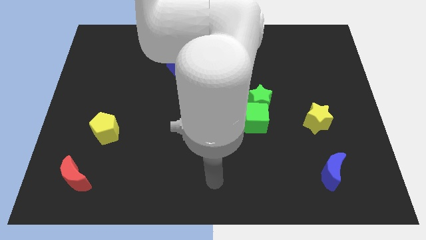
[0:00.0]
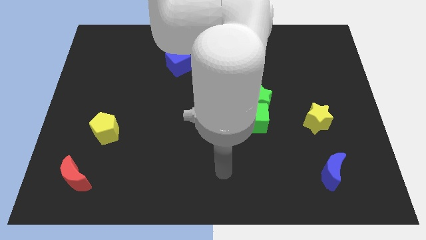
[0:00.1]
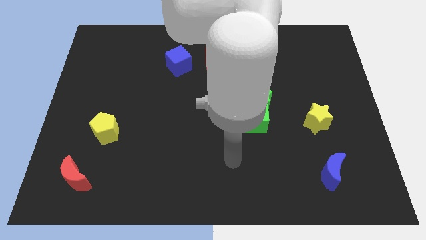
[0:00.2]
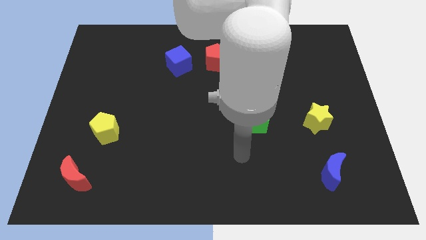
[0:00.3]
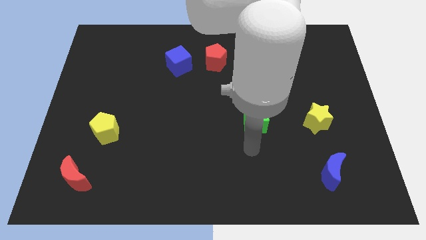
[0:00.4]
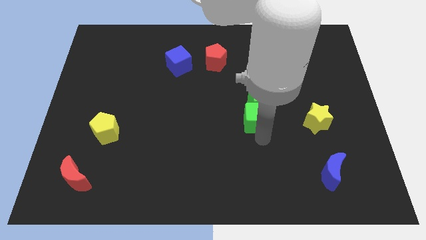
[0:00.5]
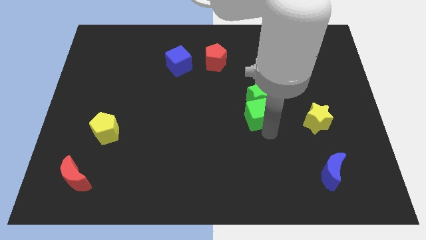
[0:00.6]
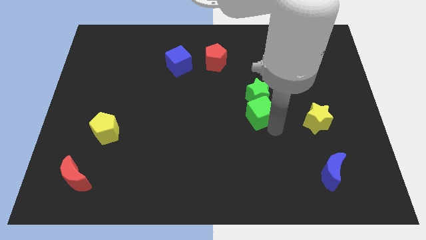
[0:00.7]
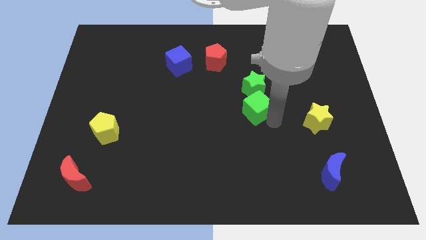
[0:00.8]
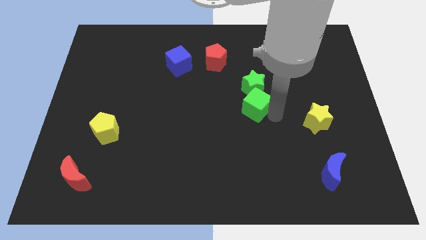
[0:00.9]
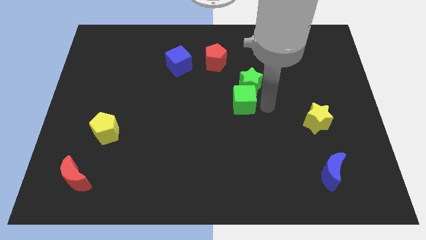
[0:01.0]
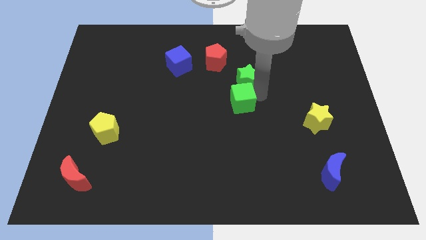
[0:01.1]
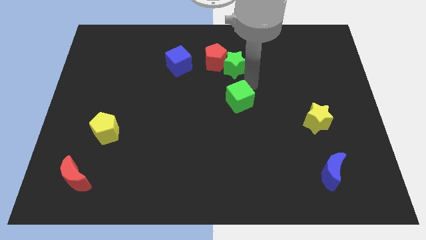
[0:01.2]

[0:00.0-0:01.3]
pull the green cube apart from the green star

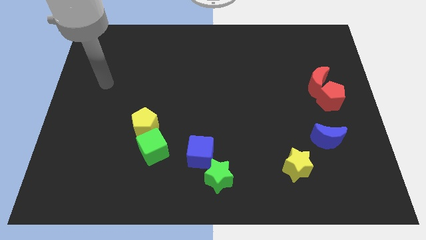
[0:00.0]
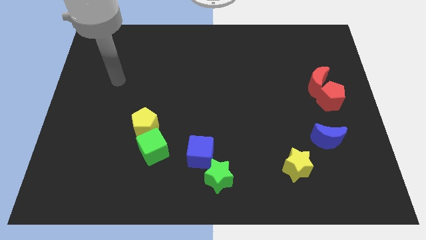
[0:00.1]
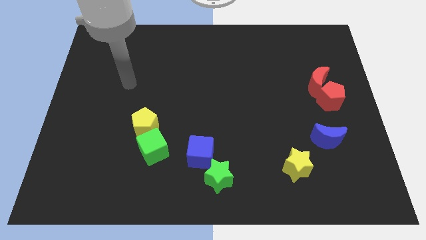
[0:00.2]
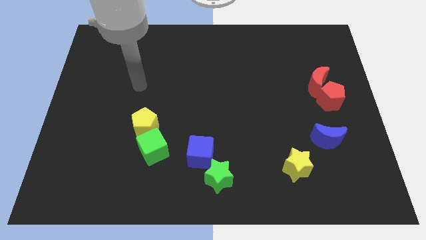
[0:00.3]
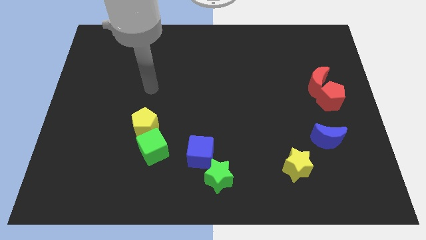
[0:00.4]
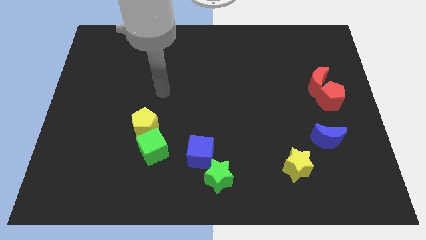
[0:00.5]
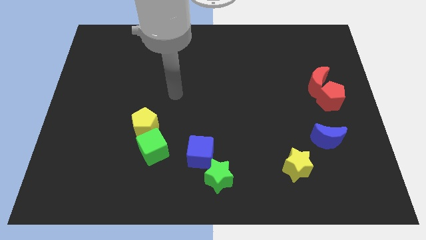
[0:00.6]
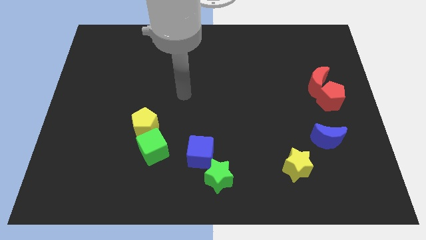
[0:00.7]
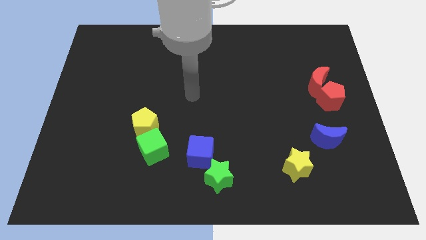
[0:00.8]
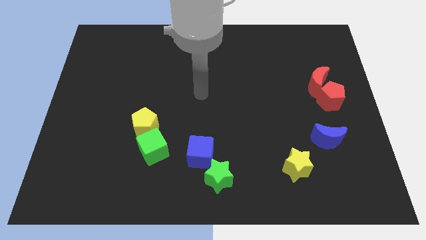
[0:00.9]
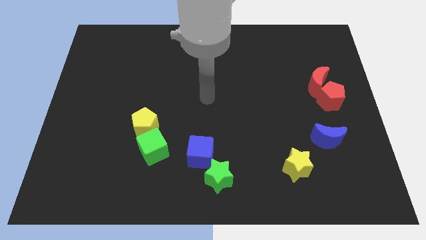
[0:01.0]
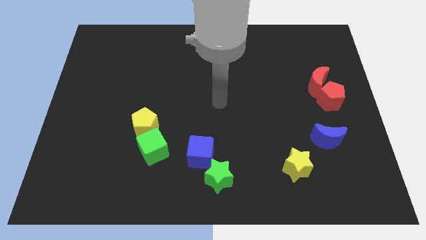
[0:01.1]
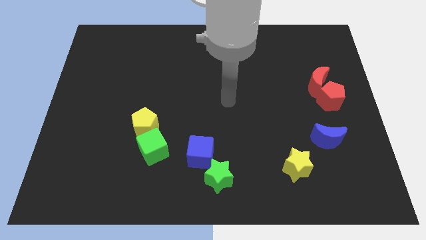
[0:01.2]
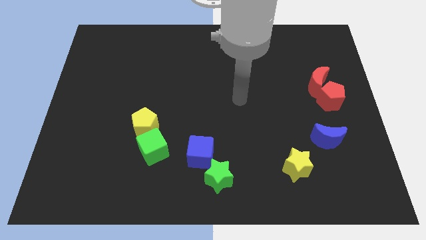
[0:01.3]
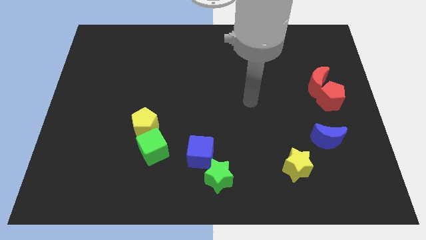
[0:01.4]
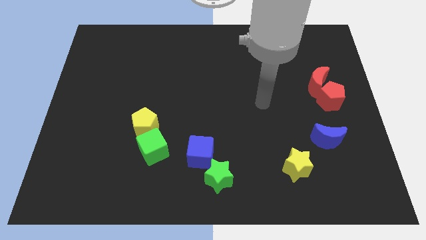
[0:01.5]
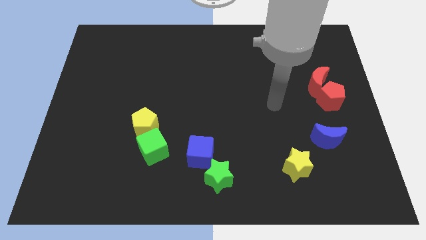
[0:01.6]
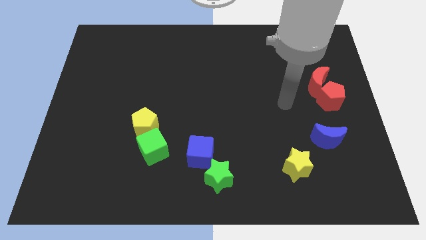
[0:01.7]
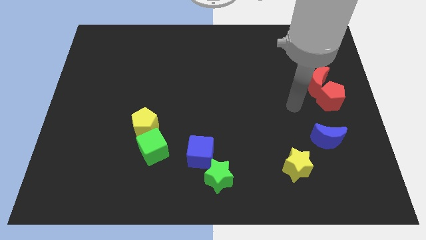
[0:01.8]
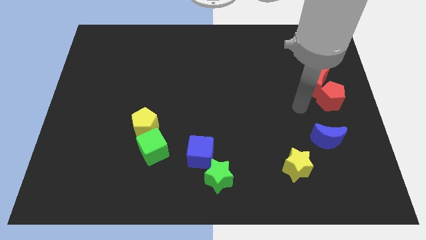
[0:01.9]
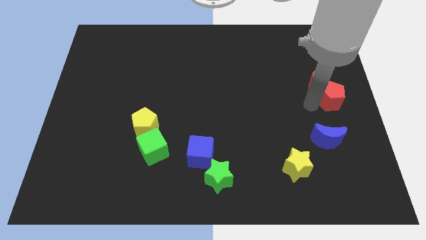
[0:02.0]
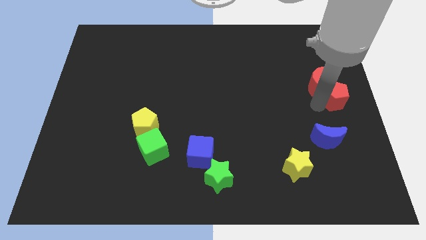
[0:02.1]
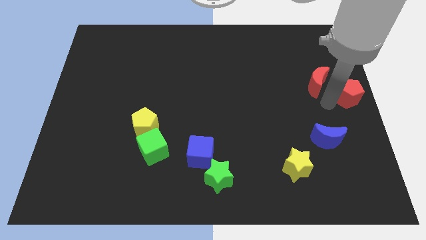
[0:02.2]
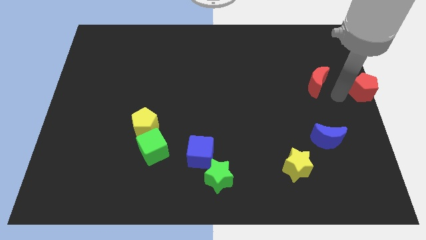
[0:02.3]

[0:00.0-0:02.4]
pull the red moon apart from the red pentagon

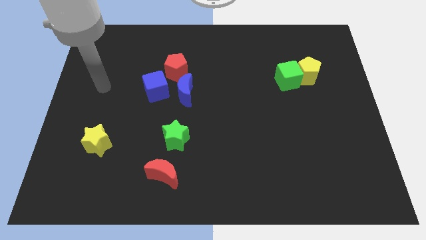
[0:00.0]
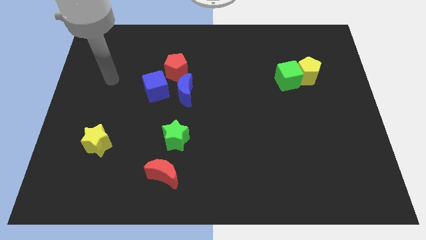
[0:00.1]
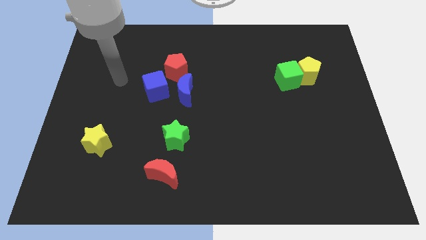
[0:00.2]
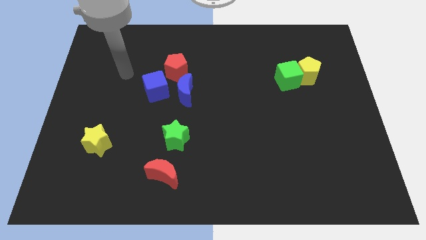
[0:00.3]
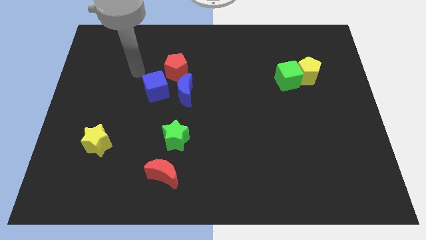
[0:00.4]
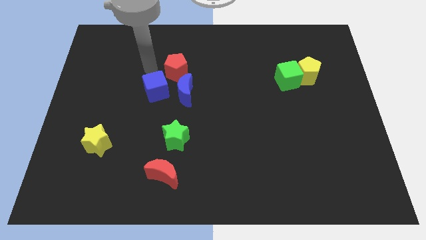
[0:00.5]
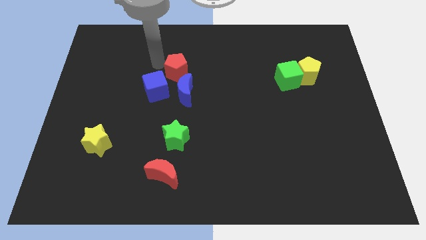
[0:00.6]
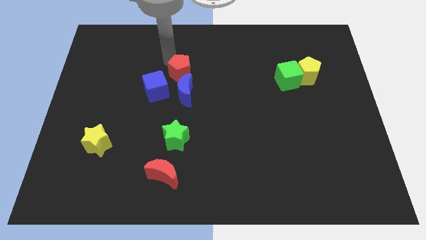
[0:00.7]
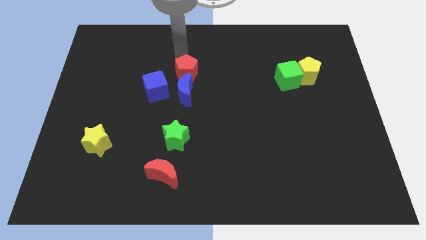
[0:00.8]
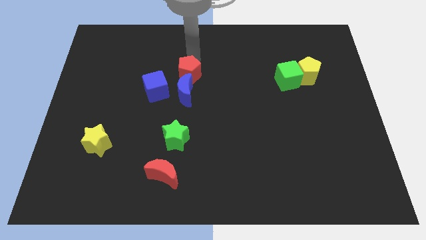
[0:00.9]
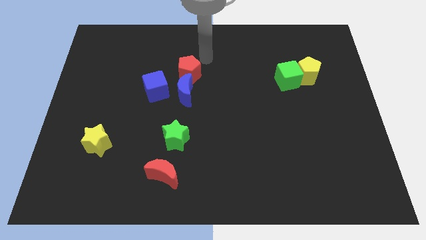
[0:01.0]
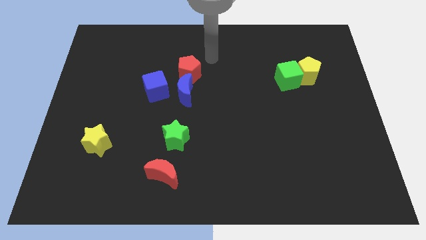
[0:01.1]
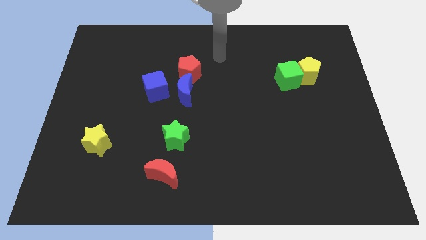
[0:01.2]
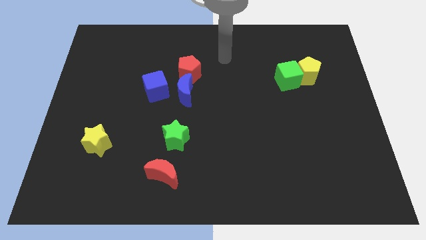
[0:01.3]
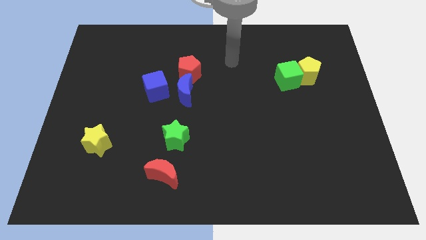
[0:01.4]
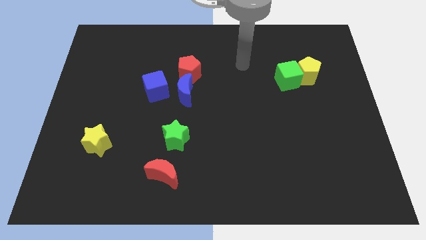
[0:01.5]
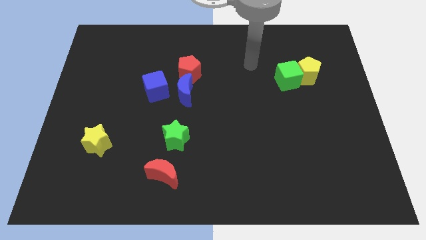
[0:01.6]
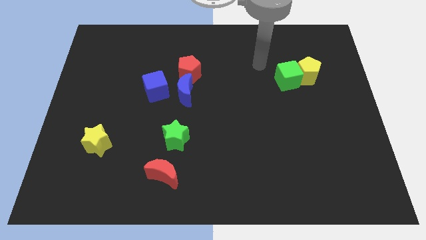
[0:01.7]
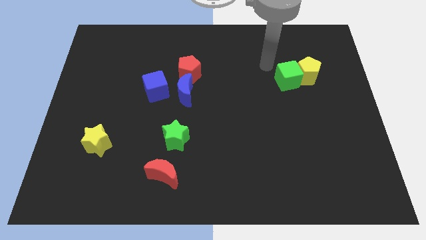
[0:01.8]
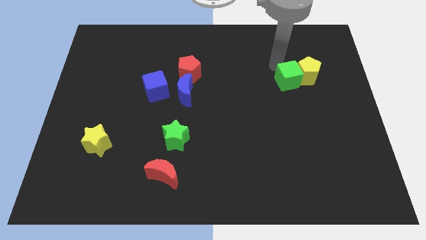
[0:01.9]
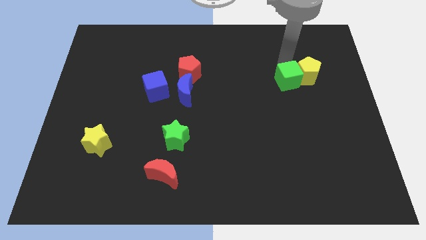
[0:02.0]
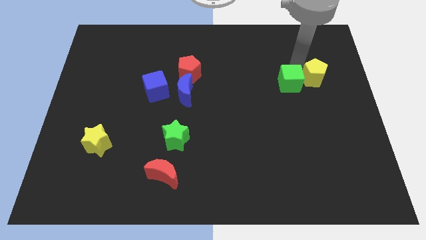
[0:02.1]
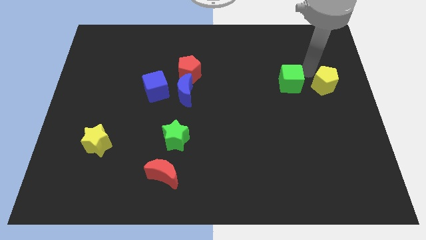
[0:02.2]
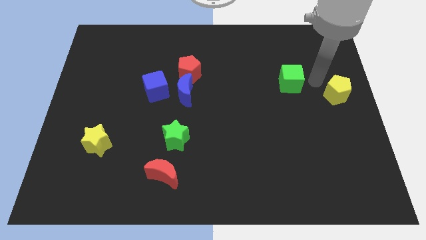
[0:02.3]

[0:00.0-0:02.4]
separate the green cube from the yellow pentagon

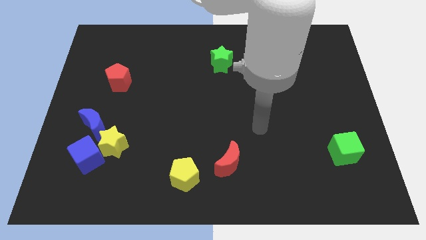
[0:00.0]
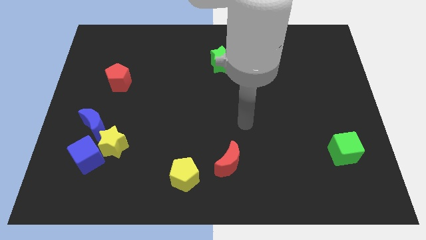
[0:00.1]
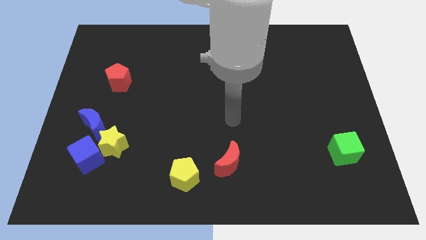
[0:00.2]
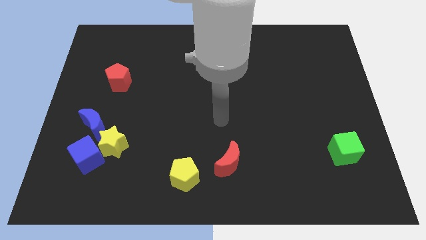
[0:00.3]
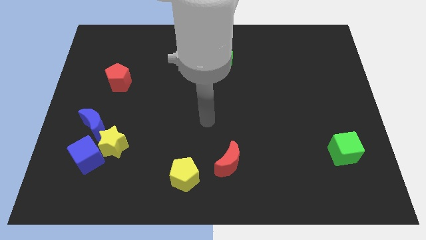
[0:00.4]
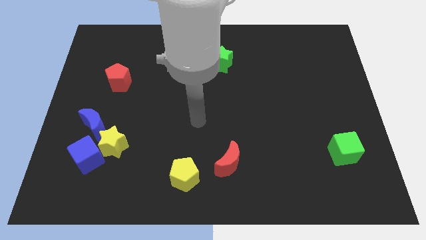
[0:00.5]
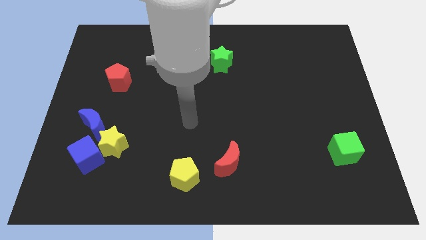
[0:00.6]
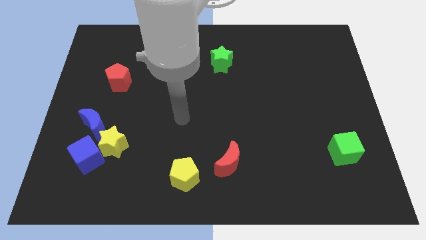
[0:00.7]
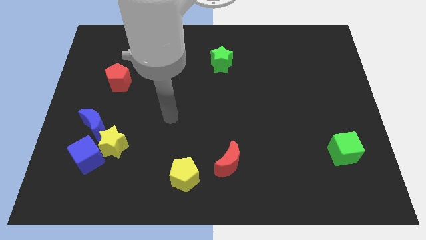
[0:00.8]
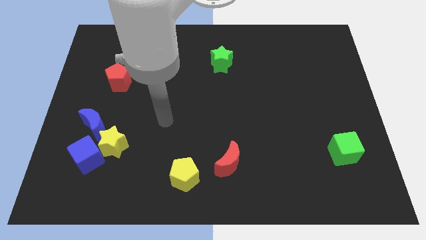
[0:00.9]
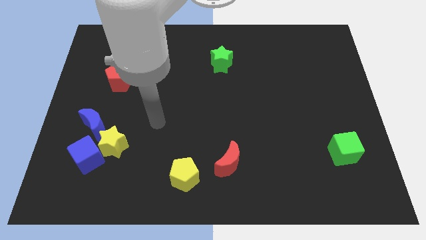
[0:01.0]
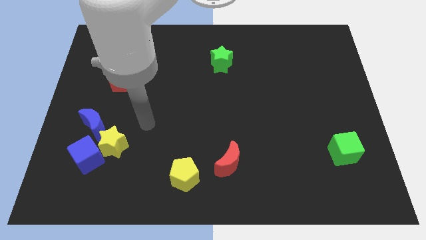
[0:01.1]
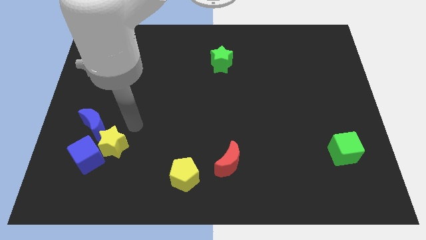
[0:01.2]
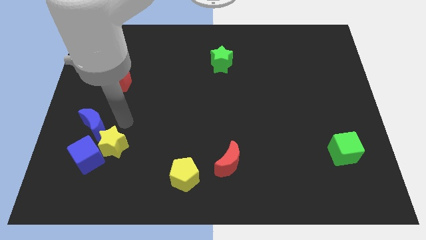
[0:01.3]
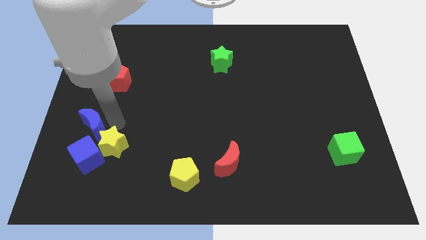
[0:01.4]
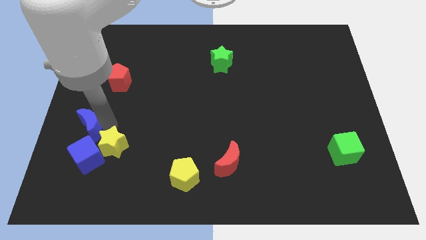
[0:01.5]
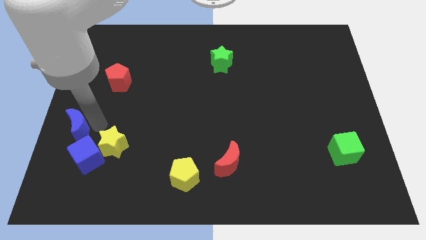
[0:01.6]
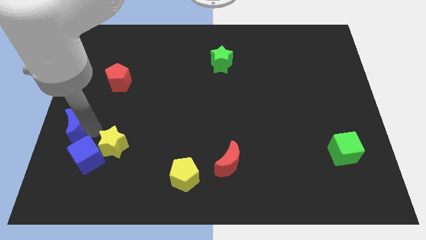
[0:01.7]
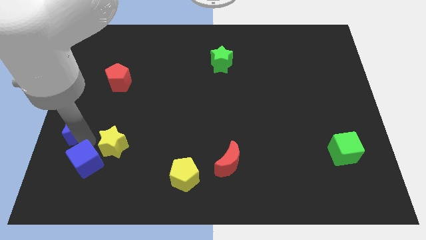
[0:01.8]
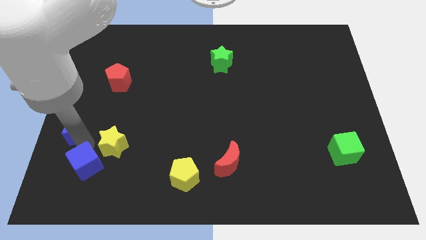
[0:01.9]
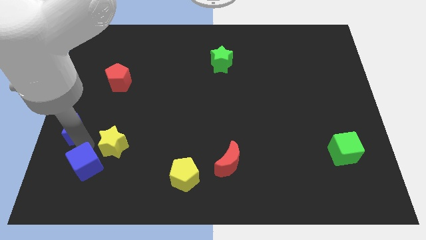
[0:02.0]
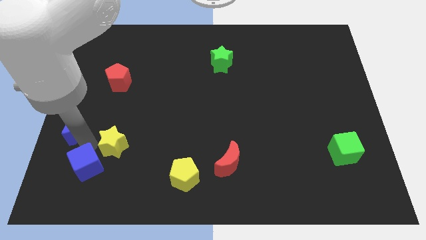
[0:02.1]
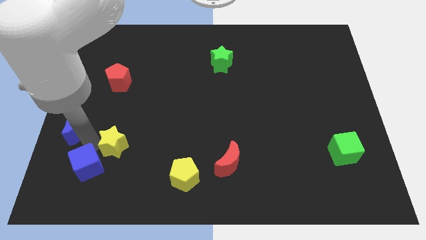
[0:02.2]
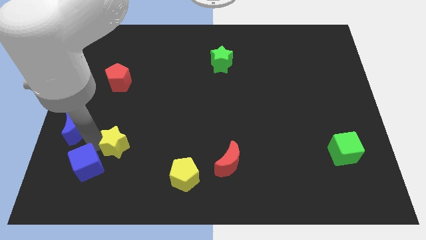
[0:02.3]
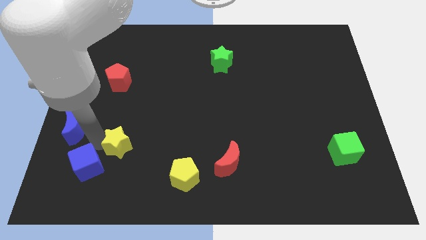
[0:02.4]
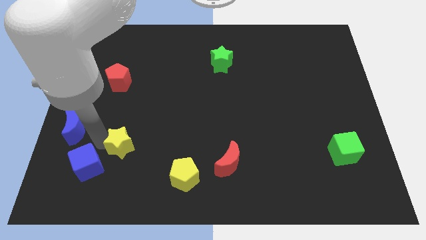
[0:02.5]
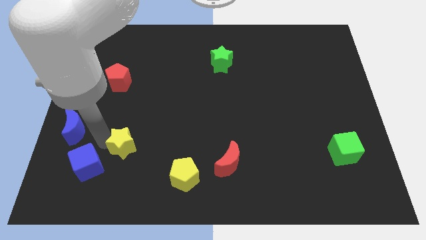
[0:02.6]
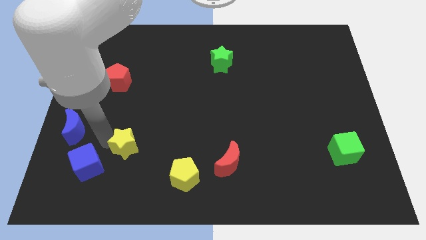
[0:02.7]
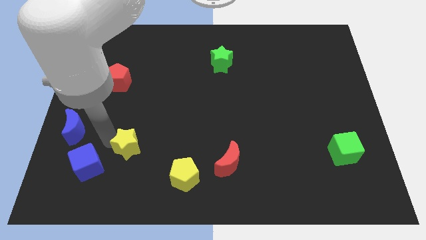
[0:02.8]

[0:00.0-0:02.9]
separate the yellow star from the blue cube and blue moon

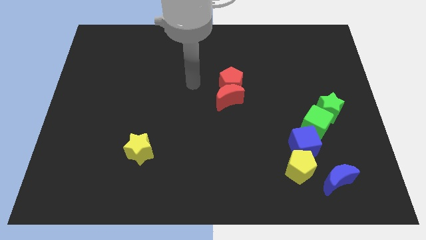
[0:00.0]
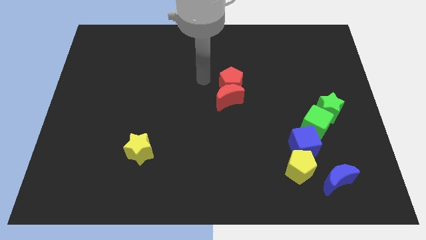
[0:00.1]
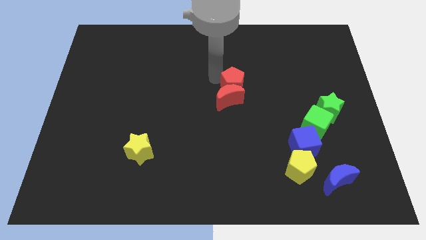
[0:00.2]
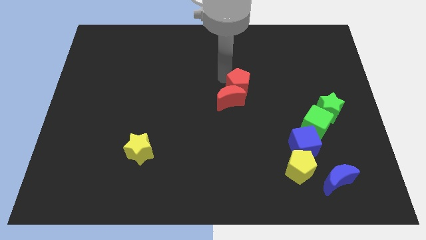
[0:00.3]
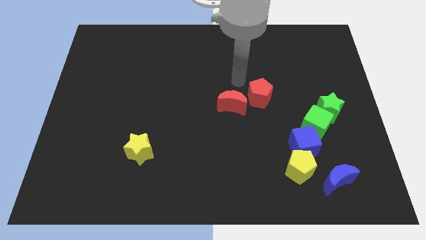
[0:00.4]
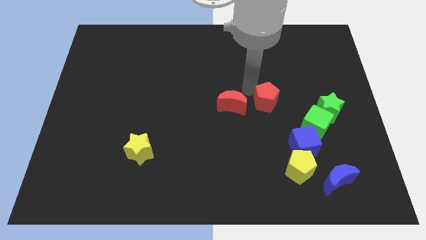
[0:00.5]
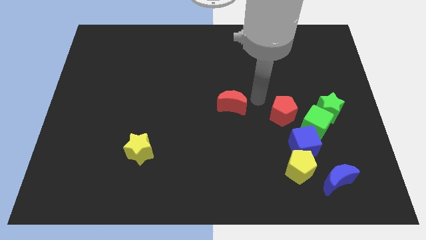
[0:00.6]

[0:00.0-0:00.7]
separate the red moon from the red pentagon
